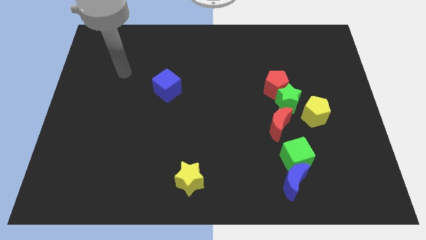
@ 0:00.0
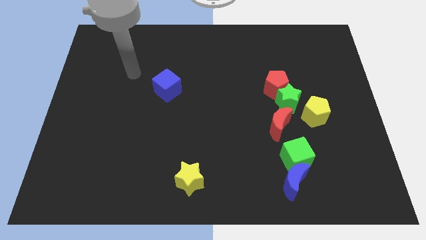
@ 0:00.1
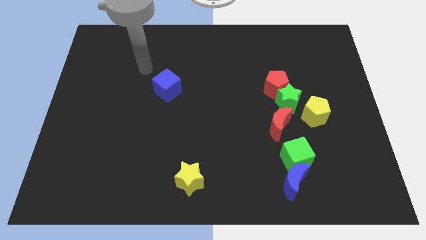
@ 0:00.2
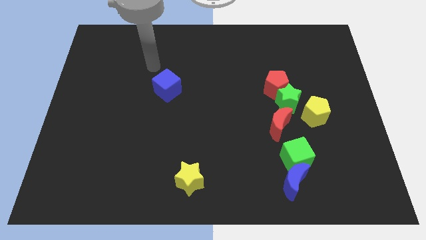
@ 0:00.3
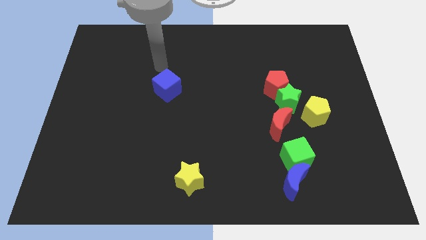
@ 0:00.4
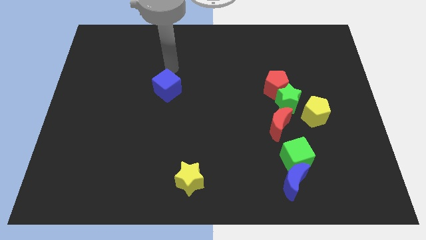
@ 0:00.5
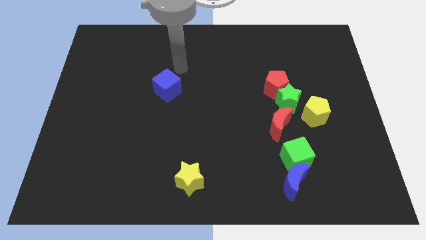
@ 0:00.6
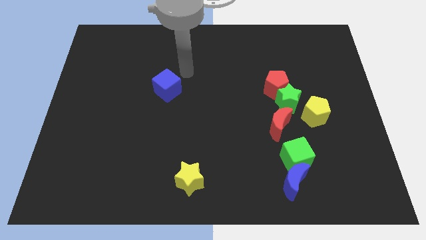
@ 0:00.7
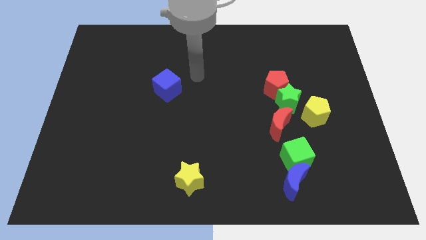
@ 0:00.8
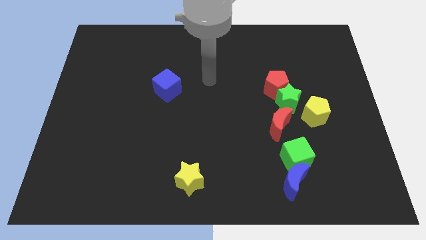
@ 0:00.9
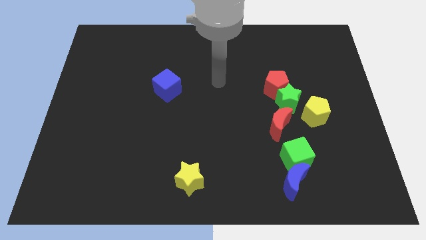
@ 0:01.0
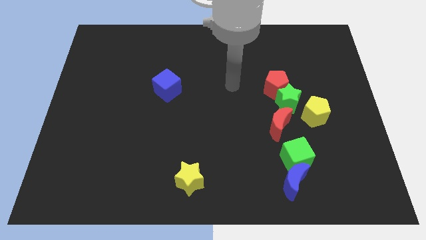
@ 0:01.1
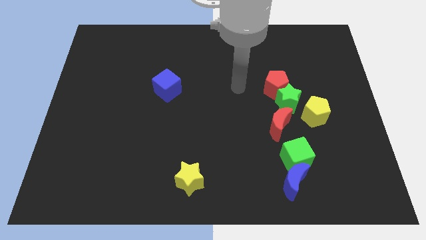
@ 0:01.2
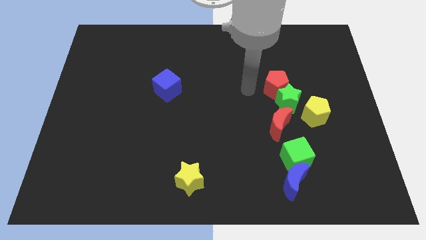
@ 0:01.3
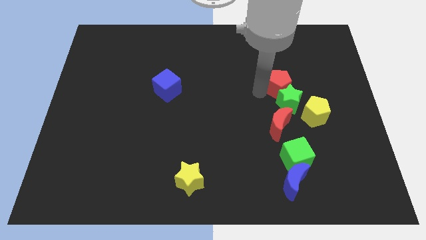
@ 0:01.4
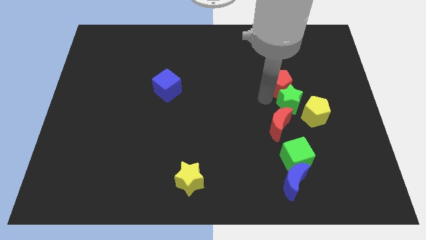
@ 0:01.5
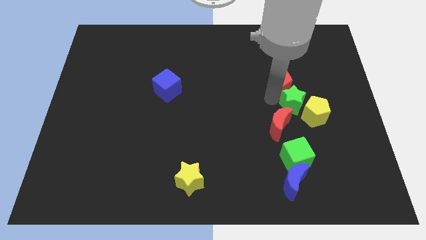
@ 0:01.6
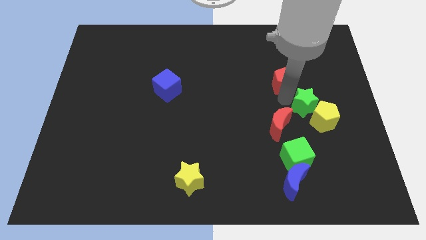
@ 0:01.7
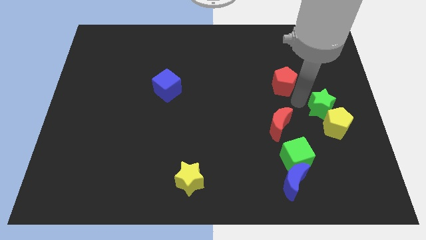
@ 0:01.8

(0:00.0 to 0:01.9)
separate the red pentagon from the green star

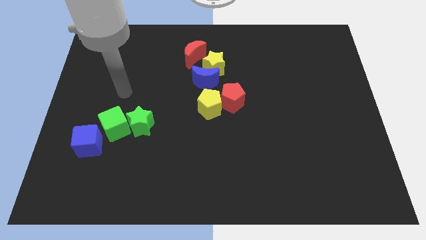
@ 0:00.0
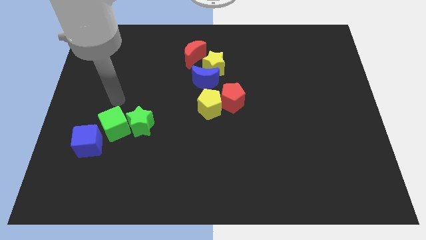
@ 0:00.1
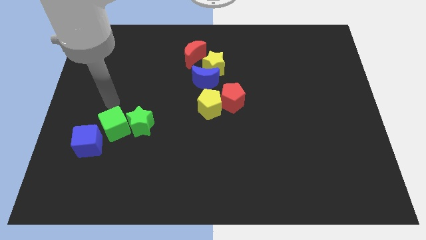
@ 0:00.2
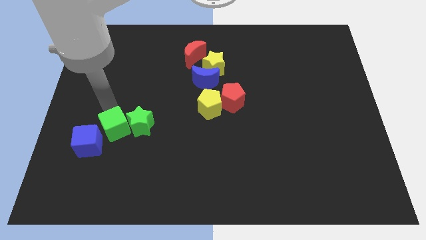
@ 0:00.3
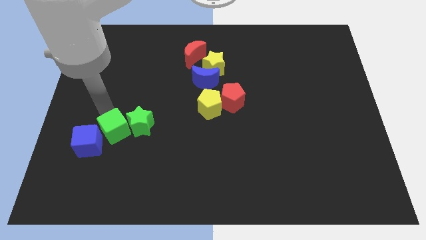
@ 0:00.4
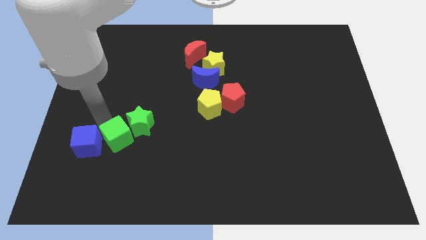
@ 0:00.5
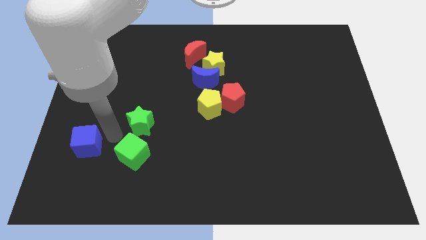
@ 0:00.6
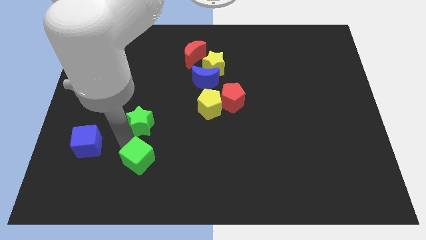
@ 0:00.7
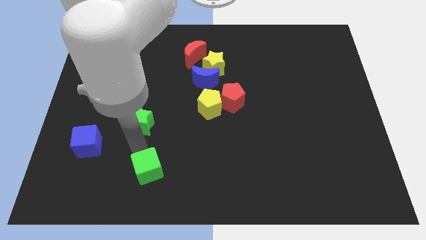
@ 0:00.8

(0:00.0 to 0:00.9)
move the green star away from the green cube

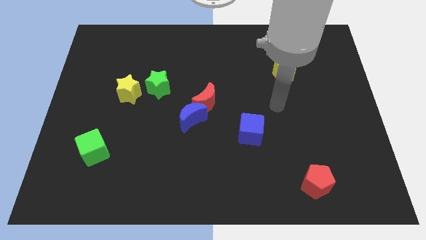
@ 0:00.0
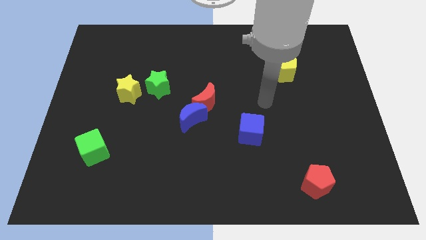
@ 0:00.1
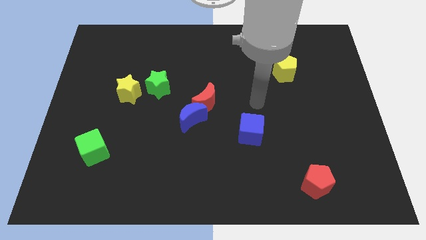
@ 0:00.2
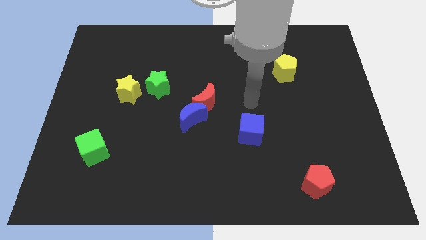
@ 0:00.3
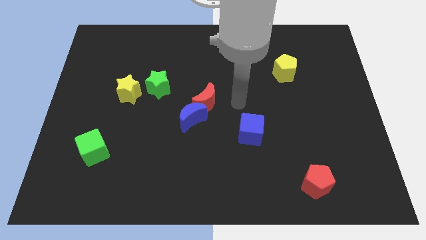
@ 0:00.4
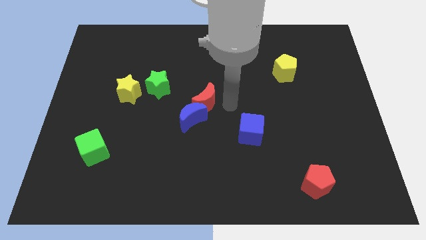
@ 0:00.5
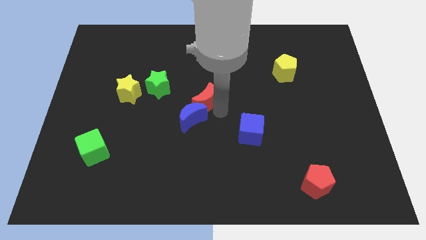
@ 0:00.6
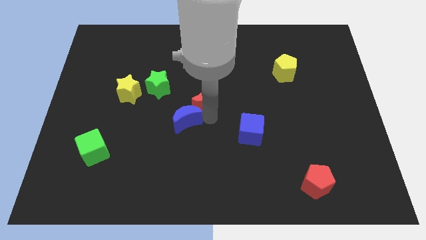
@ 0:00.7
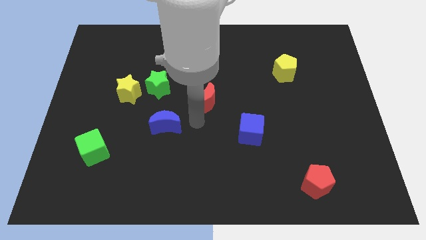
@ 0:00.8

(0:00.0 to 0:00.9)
move the red moon away from the blue moon

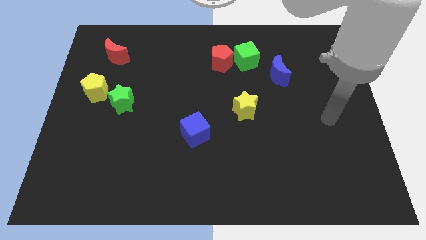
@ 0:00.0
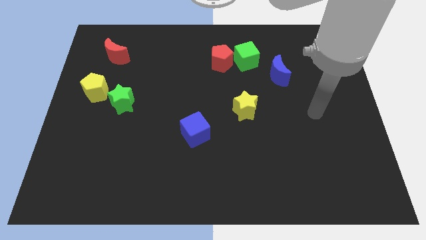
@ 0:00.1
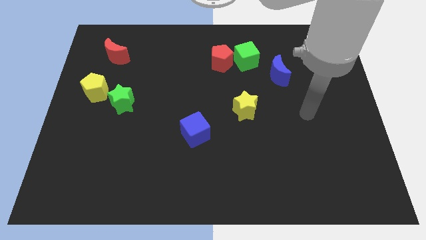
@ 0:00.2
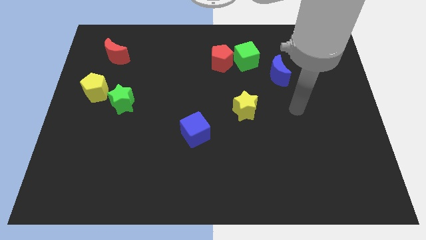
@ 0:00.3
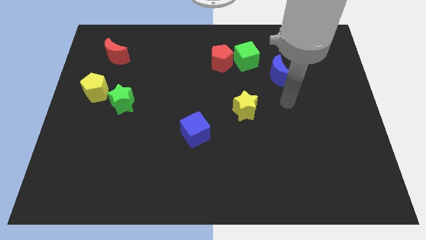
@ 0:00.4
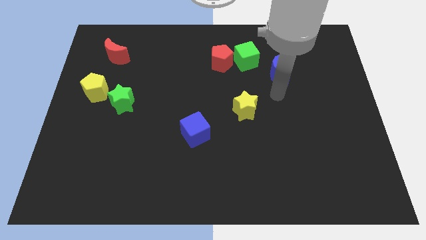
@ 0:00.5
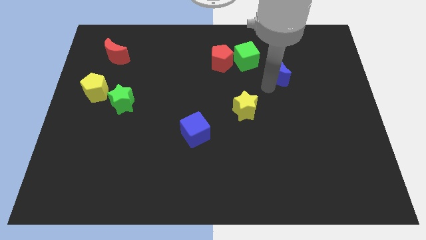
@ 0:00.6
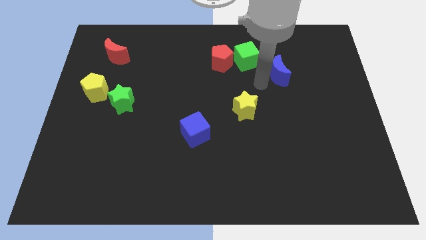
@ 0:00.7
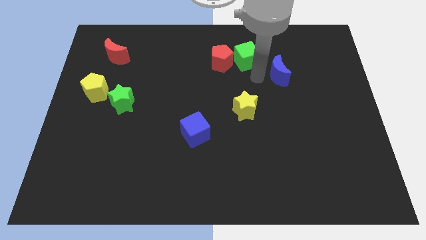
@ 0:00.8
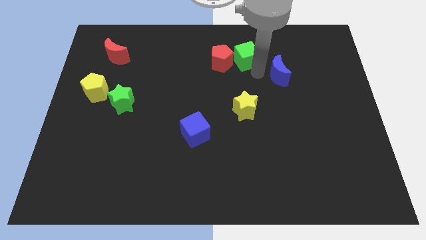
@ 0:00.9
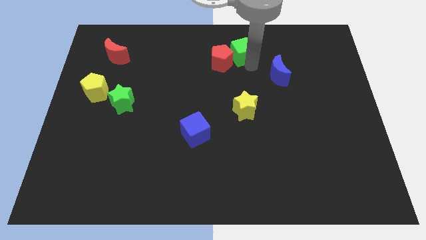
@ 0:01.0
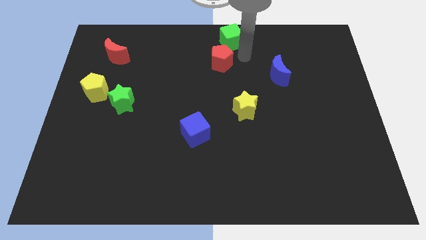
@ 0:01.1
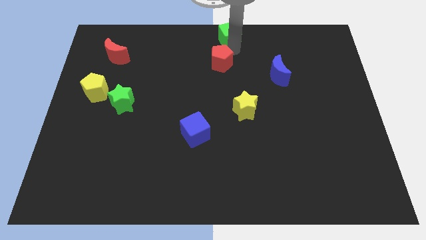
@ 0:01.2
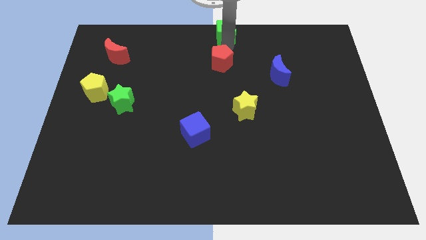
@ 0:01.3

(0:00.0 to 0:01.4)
separate the red pentagon from the green cube

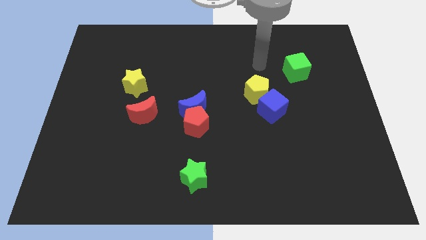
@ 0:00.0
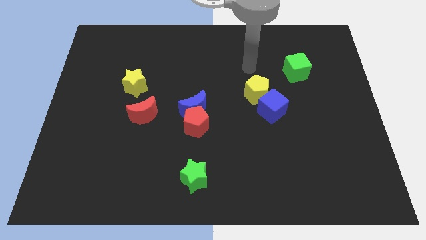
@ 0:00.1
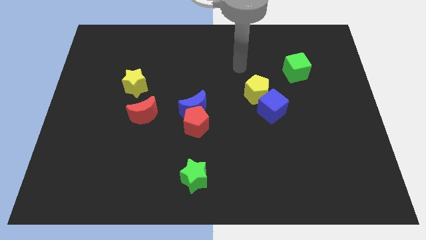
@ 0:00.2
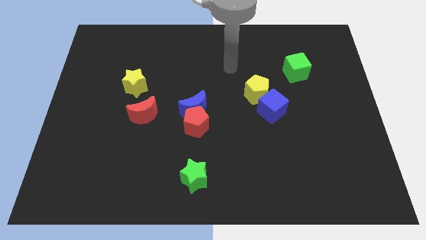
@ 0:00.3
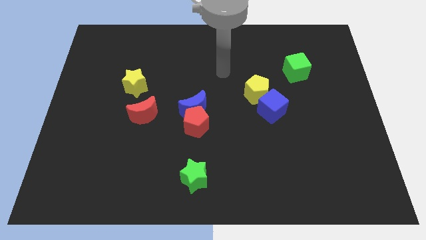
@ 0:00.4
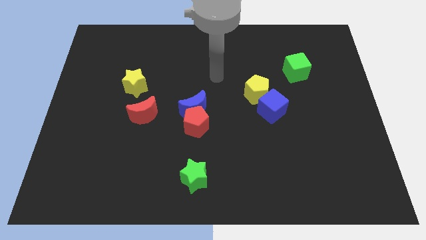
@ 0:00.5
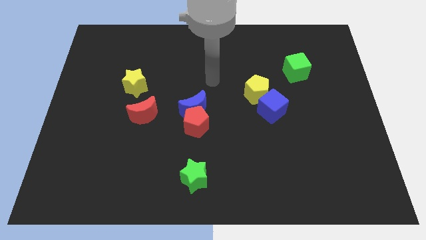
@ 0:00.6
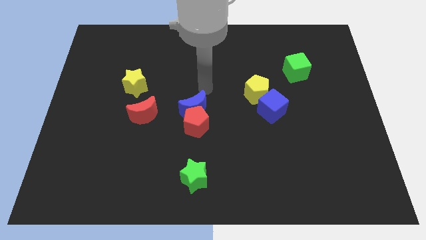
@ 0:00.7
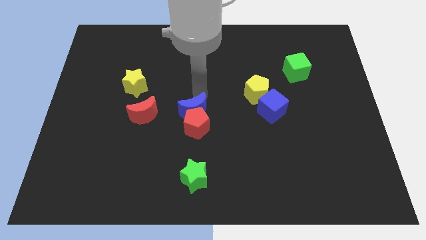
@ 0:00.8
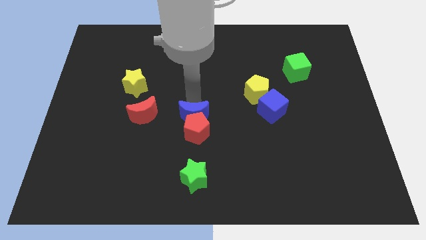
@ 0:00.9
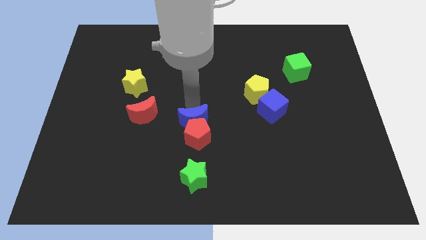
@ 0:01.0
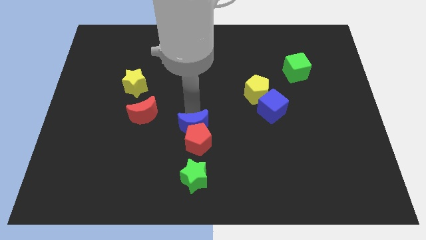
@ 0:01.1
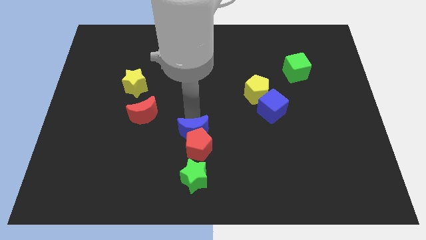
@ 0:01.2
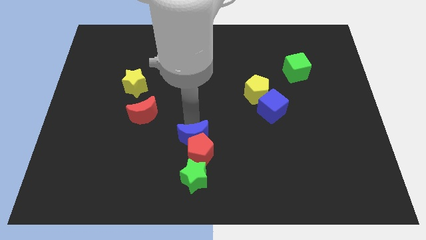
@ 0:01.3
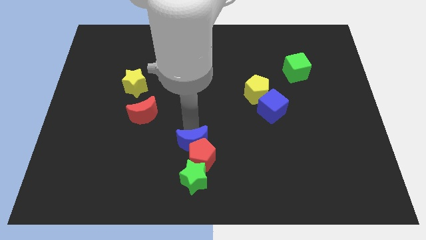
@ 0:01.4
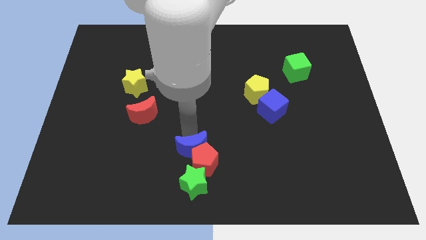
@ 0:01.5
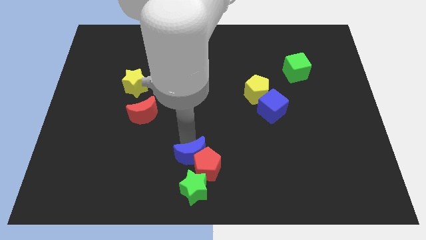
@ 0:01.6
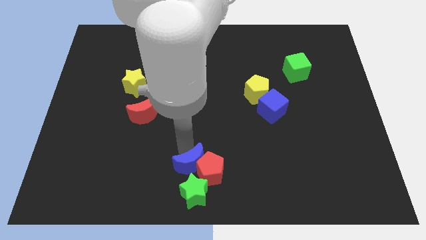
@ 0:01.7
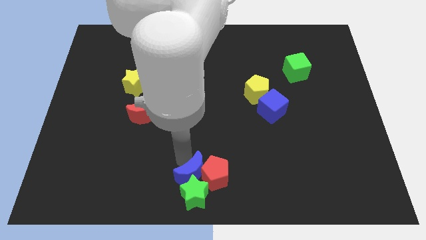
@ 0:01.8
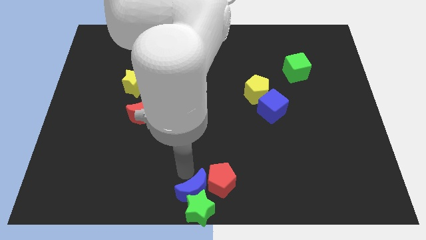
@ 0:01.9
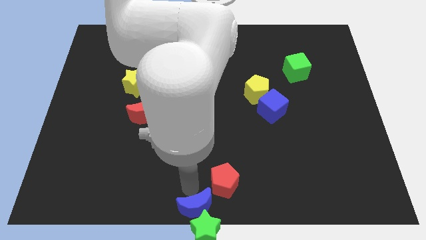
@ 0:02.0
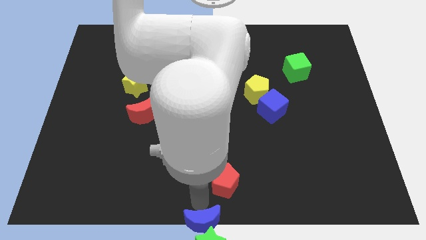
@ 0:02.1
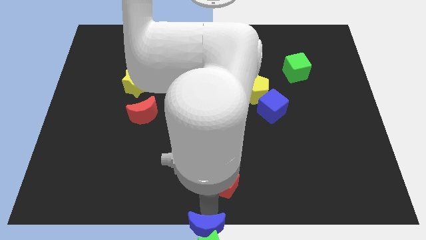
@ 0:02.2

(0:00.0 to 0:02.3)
separate the red pentagon from the blue moon

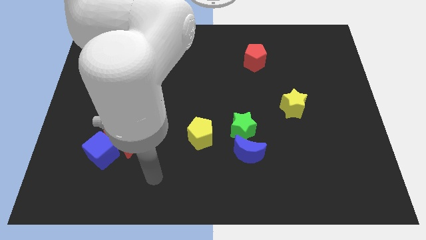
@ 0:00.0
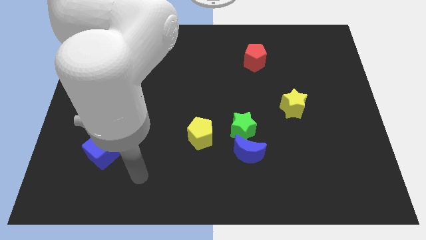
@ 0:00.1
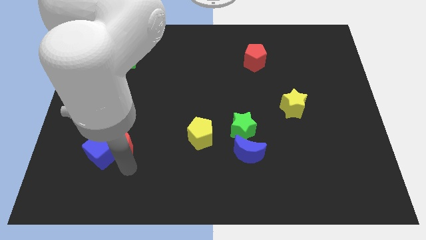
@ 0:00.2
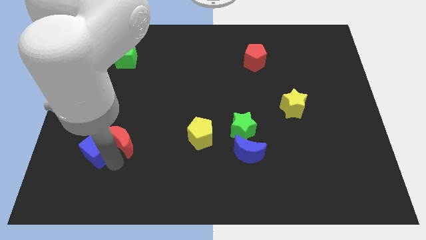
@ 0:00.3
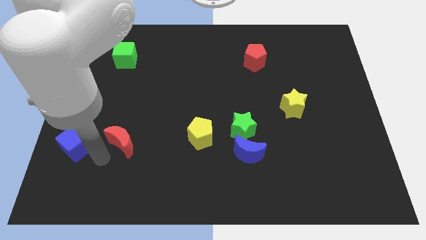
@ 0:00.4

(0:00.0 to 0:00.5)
move the red moon away from the blue cube

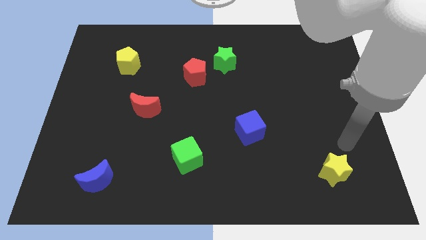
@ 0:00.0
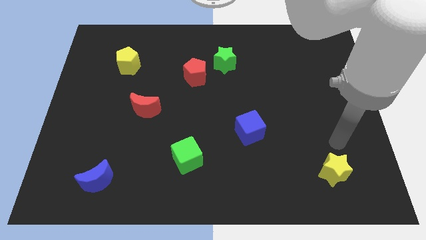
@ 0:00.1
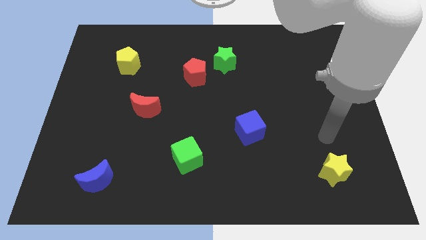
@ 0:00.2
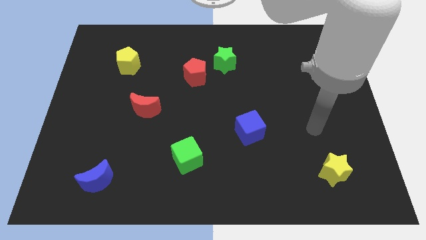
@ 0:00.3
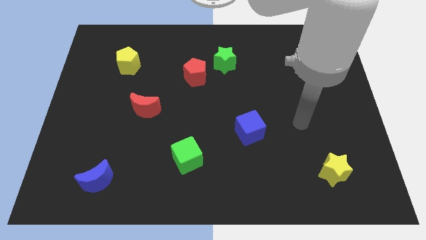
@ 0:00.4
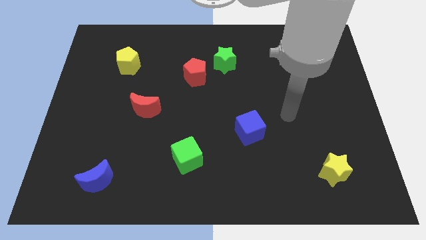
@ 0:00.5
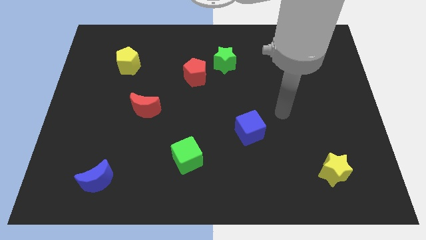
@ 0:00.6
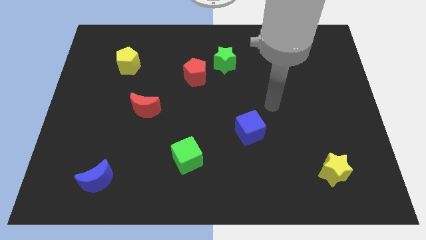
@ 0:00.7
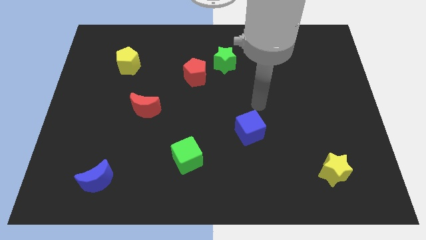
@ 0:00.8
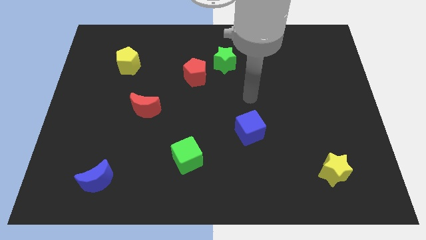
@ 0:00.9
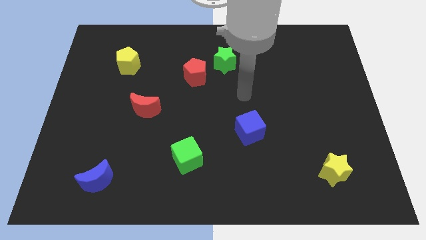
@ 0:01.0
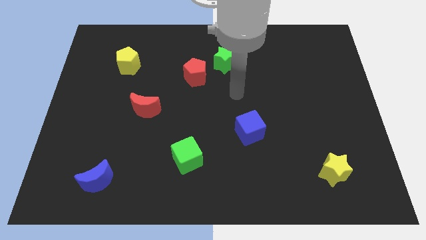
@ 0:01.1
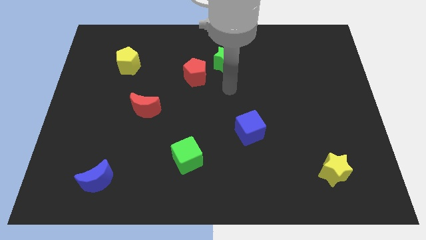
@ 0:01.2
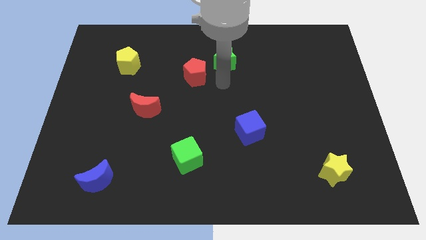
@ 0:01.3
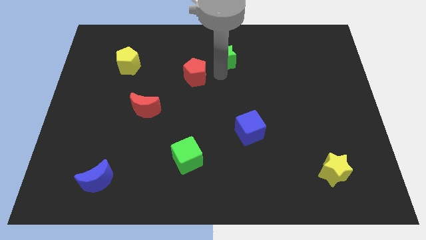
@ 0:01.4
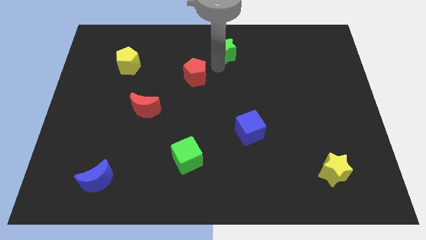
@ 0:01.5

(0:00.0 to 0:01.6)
move the red pentagon away from the green star
